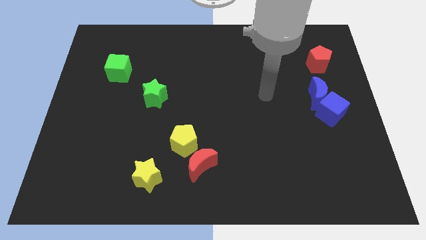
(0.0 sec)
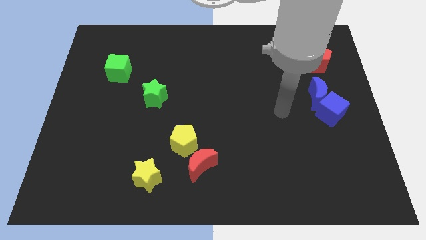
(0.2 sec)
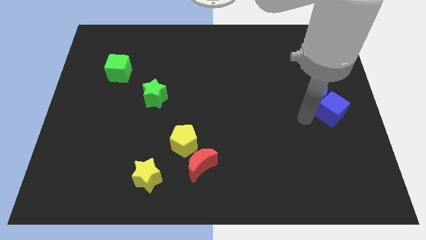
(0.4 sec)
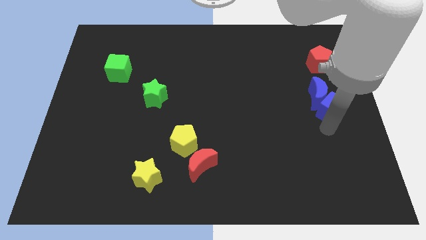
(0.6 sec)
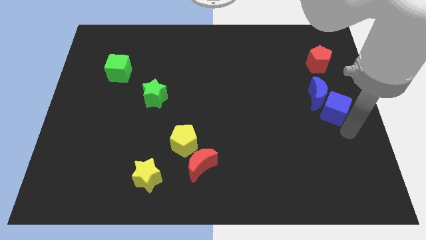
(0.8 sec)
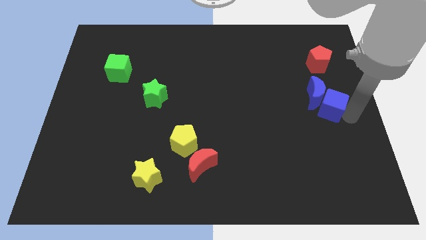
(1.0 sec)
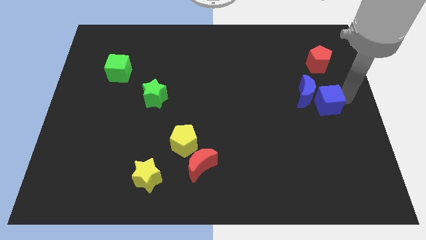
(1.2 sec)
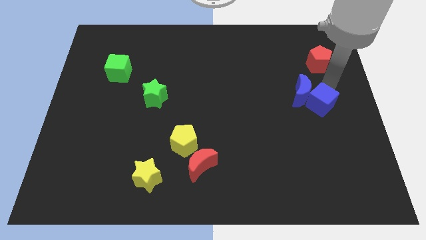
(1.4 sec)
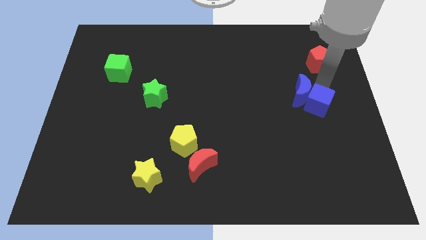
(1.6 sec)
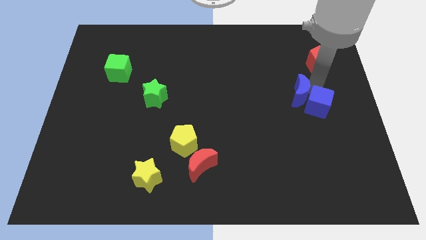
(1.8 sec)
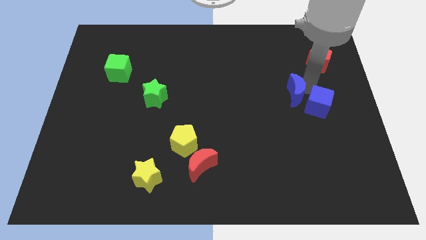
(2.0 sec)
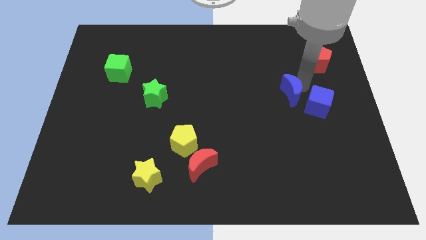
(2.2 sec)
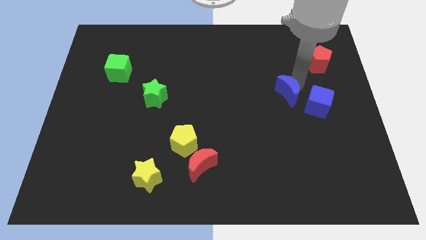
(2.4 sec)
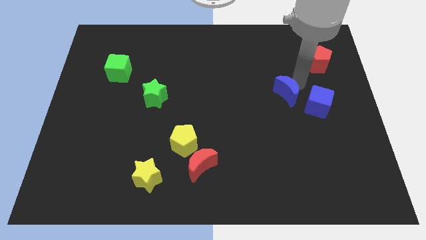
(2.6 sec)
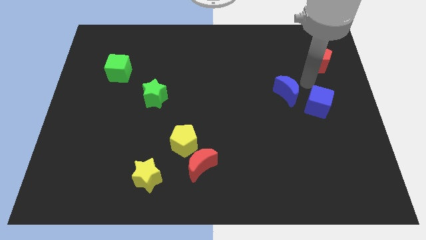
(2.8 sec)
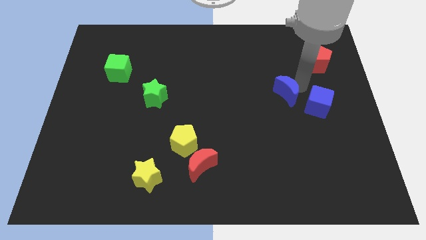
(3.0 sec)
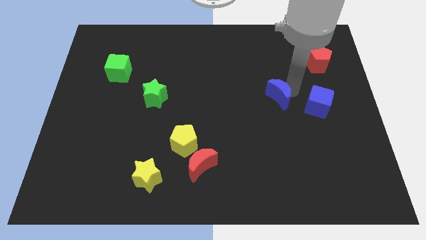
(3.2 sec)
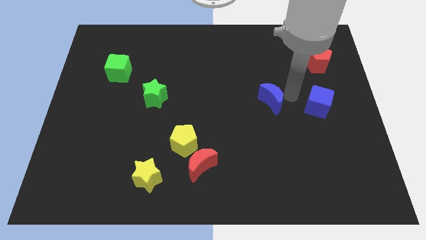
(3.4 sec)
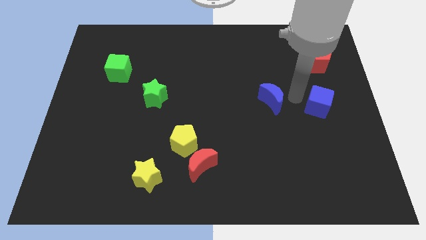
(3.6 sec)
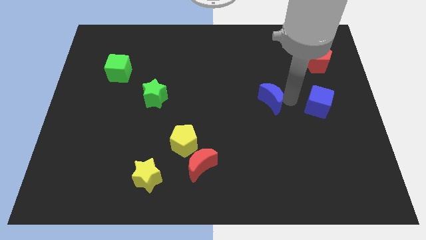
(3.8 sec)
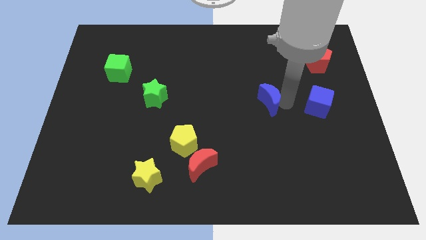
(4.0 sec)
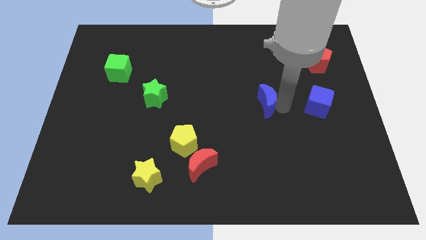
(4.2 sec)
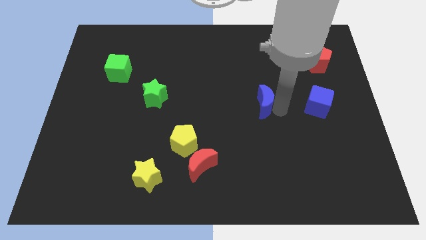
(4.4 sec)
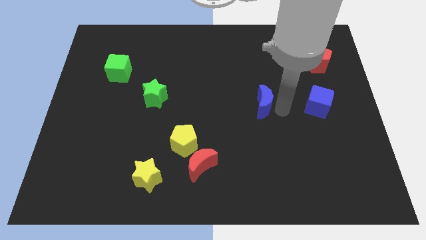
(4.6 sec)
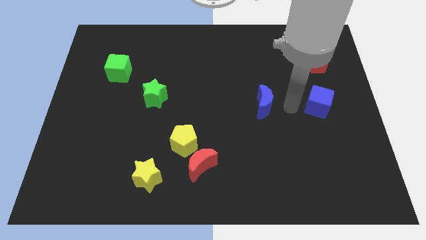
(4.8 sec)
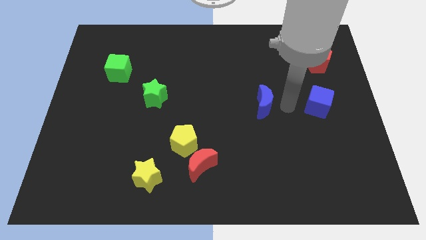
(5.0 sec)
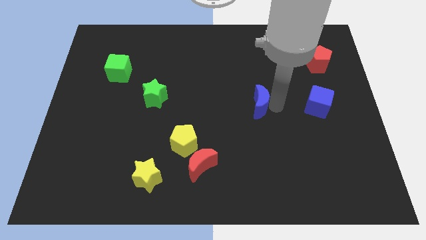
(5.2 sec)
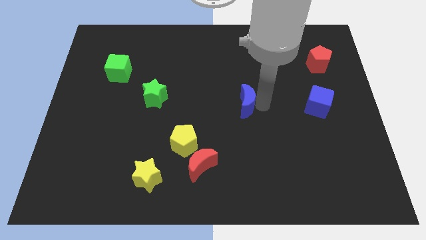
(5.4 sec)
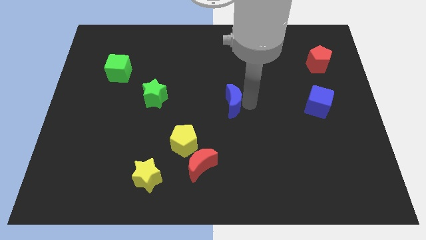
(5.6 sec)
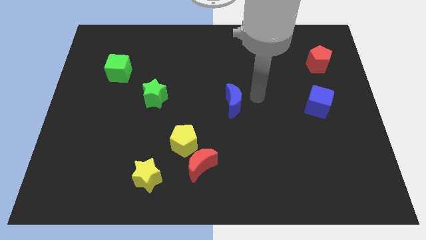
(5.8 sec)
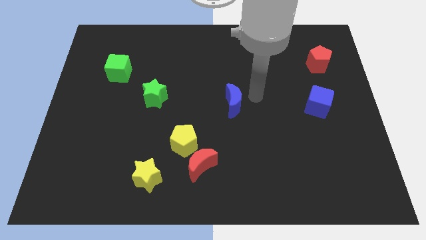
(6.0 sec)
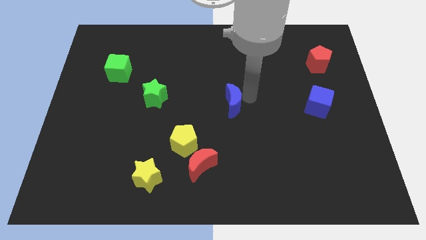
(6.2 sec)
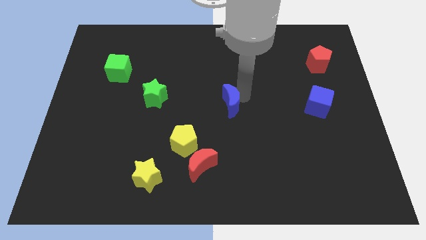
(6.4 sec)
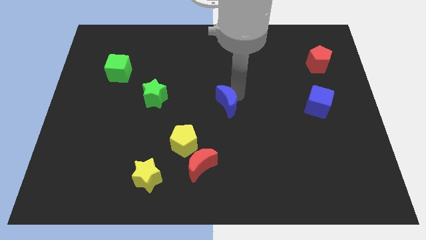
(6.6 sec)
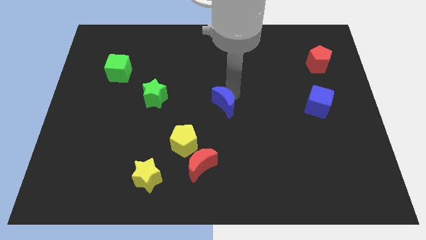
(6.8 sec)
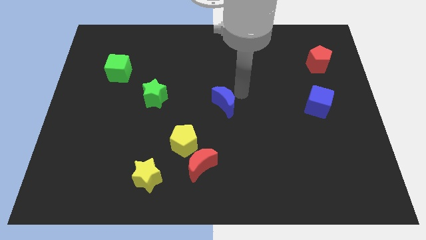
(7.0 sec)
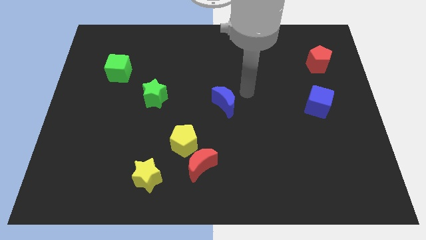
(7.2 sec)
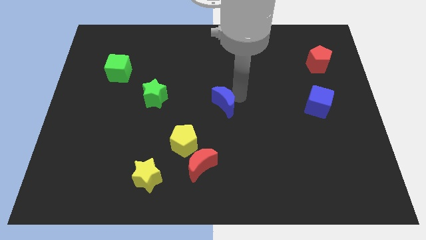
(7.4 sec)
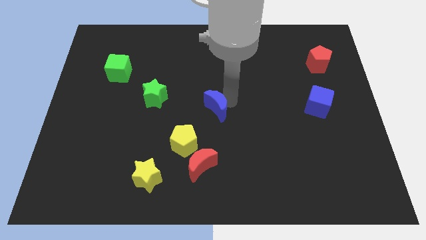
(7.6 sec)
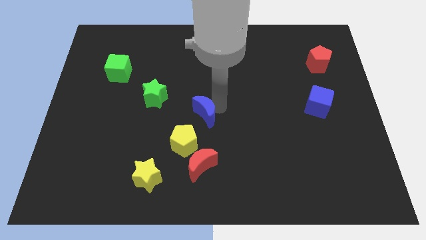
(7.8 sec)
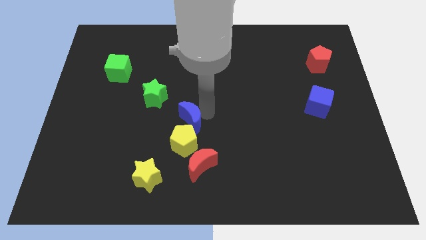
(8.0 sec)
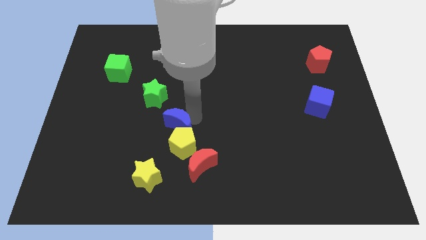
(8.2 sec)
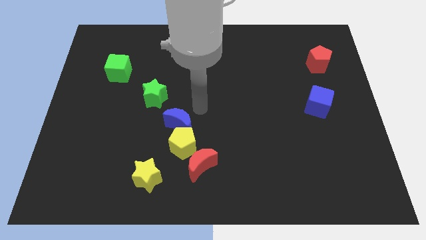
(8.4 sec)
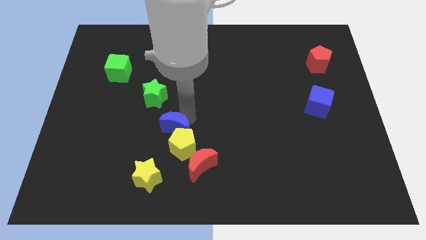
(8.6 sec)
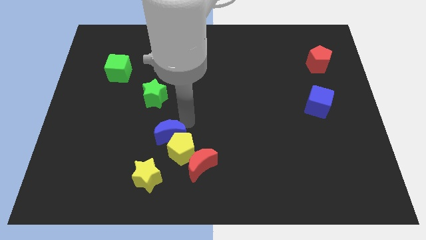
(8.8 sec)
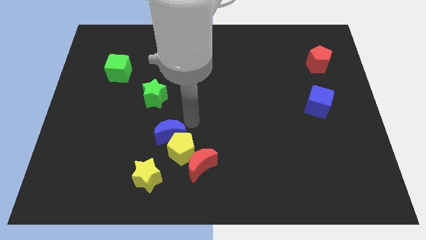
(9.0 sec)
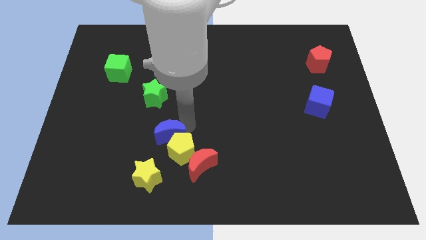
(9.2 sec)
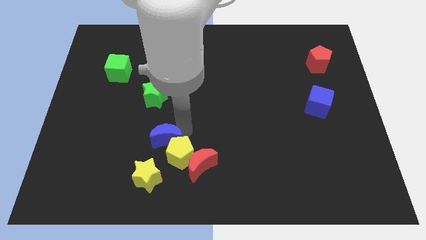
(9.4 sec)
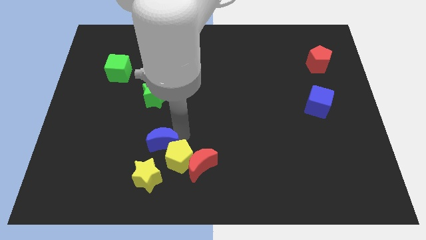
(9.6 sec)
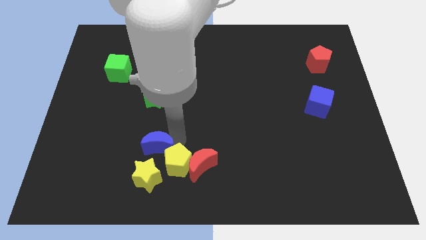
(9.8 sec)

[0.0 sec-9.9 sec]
slide the blue moon just left of the red moon

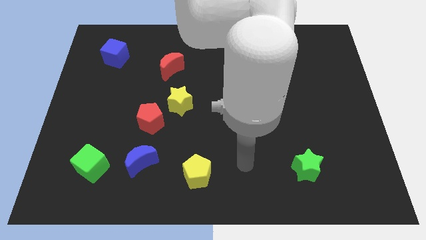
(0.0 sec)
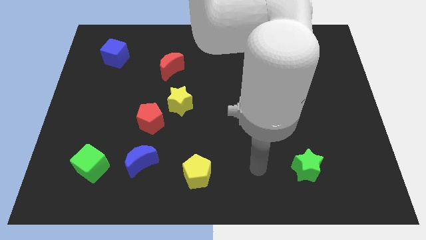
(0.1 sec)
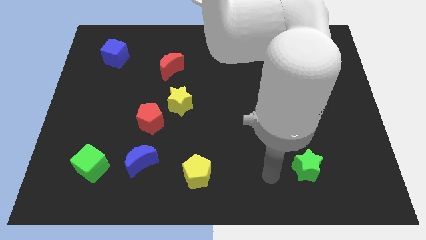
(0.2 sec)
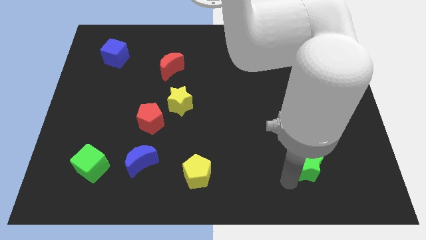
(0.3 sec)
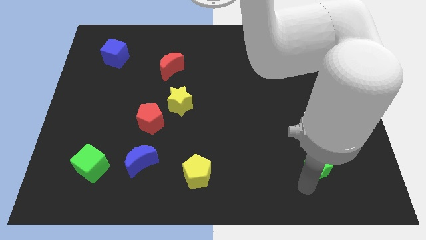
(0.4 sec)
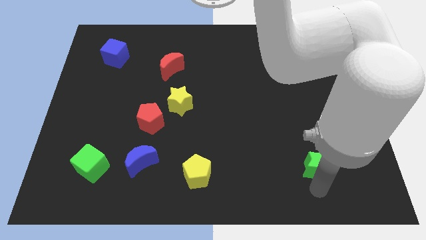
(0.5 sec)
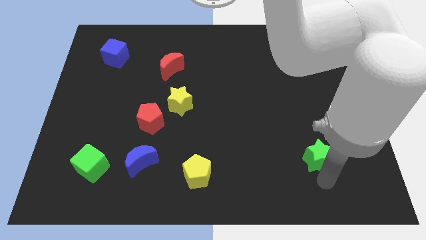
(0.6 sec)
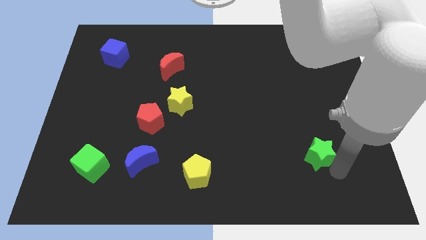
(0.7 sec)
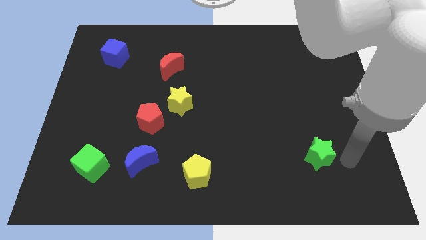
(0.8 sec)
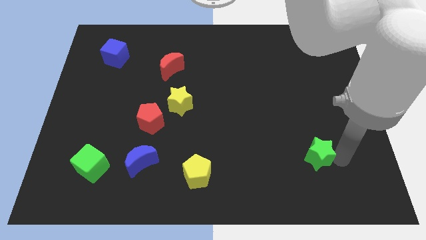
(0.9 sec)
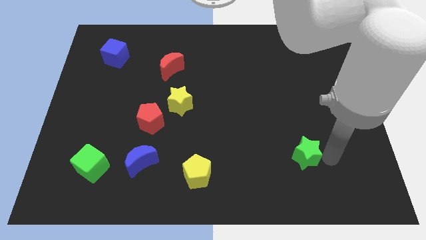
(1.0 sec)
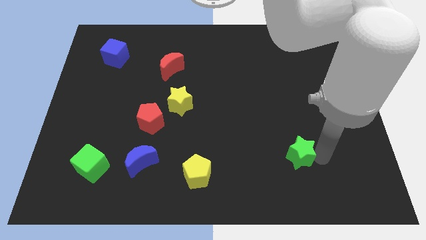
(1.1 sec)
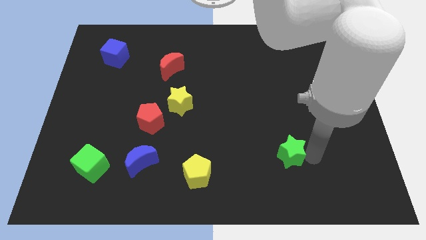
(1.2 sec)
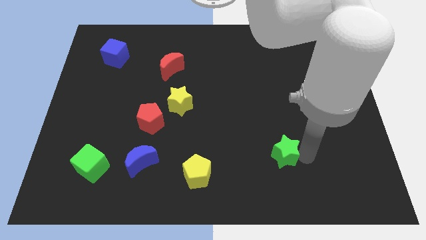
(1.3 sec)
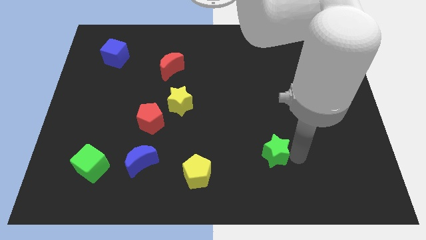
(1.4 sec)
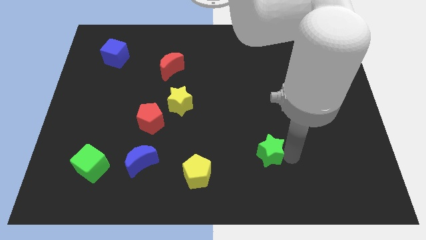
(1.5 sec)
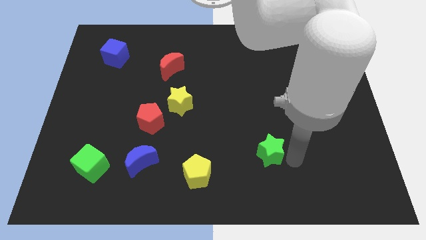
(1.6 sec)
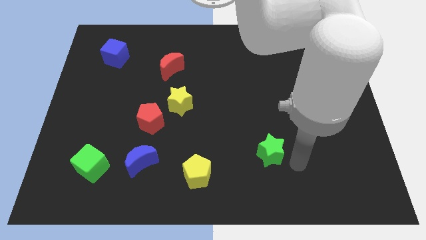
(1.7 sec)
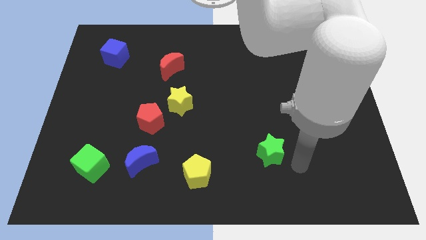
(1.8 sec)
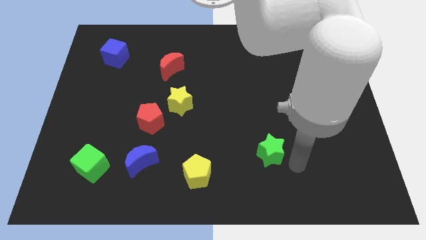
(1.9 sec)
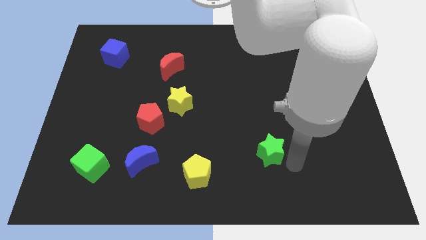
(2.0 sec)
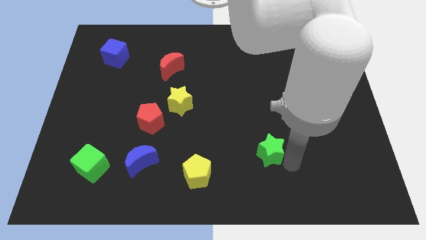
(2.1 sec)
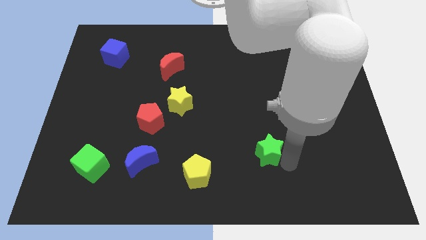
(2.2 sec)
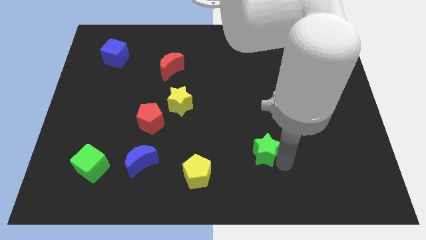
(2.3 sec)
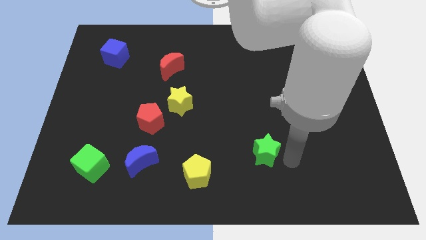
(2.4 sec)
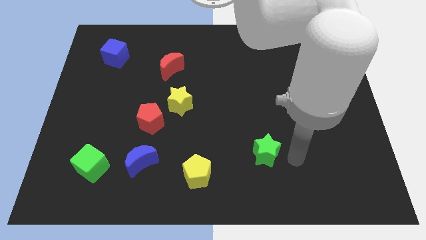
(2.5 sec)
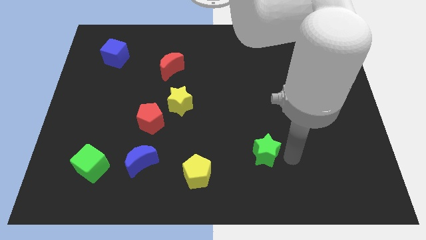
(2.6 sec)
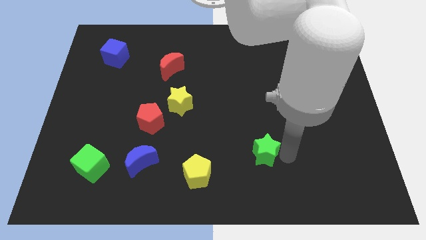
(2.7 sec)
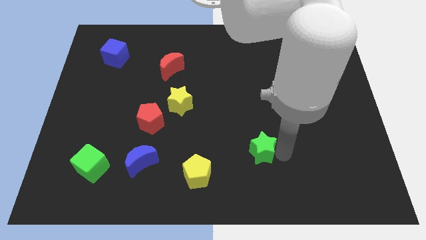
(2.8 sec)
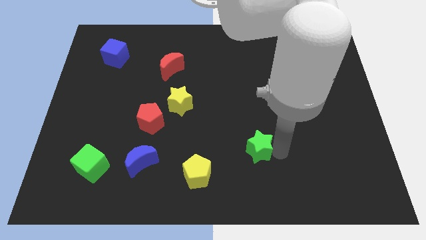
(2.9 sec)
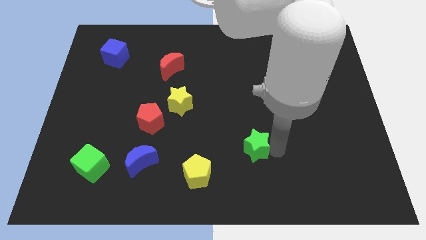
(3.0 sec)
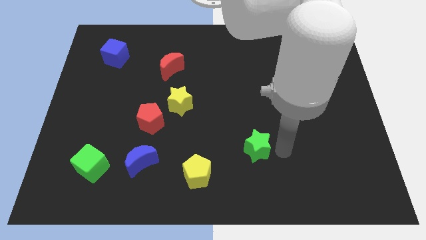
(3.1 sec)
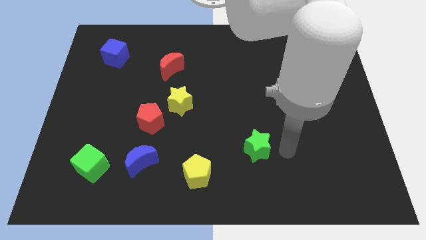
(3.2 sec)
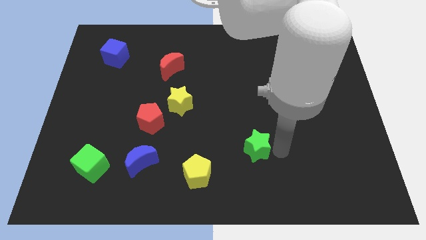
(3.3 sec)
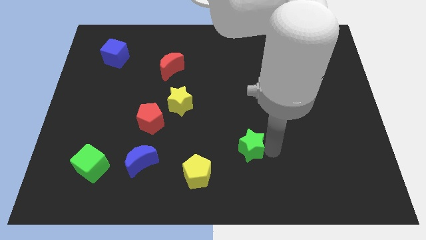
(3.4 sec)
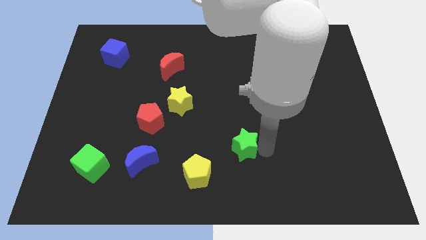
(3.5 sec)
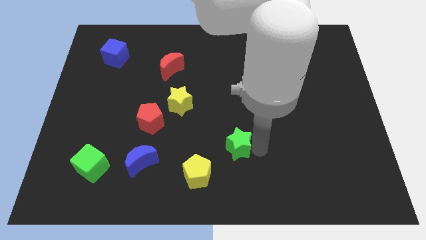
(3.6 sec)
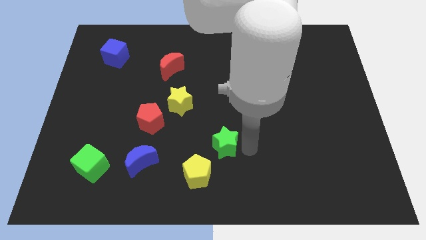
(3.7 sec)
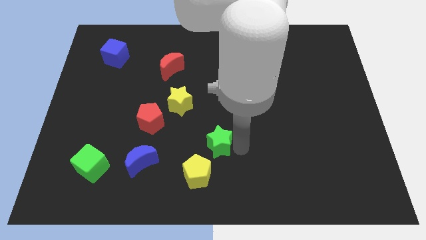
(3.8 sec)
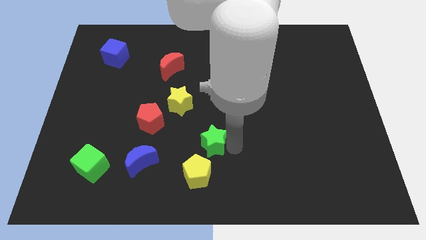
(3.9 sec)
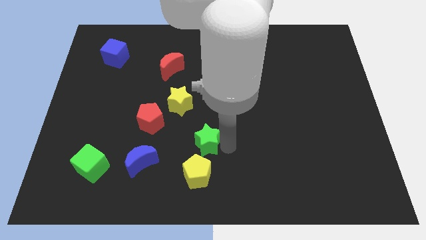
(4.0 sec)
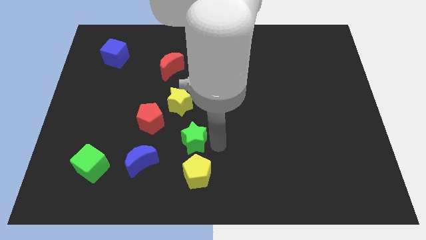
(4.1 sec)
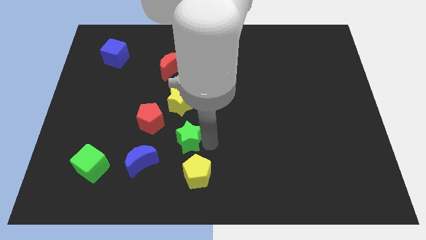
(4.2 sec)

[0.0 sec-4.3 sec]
put the green star to the top right of the blue moon
